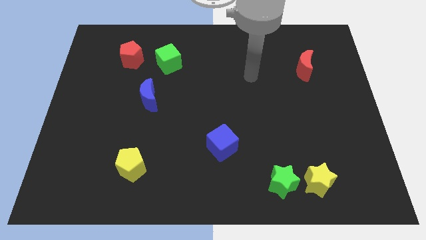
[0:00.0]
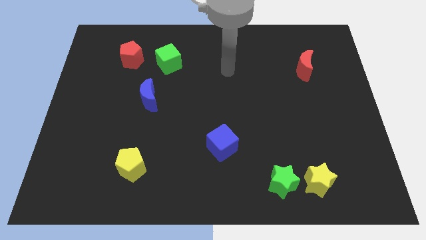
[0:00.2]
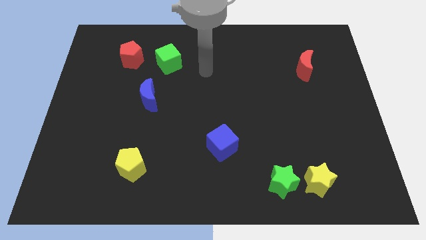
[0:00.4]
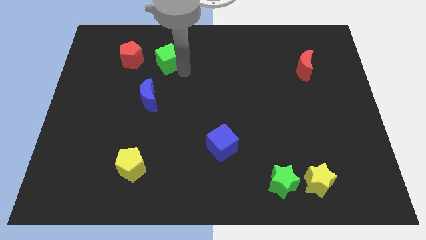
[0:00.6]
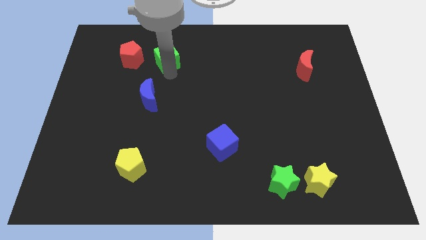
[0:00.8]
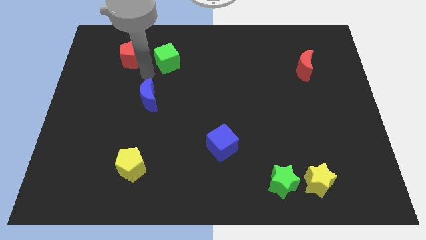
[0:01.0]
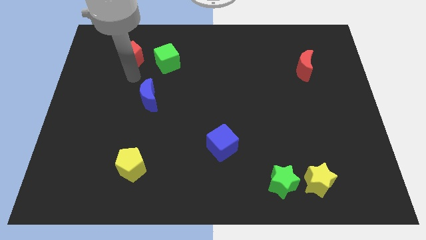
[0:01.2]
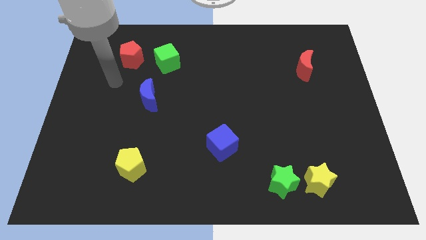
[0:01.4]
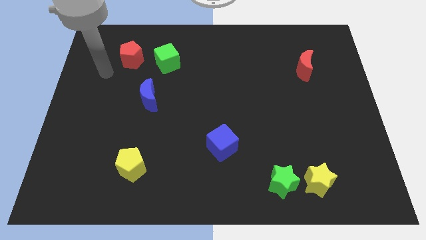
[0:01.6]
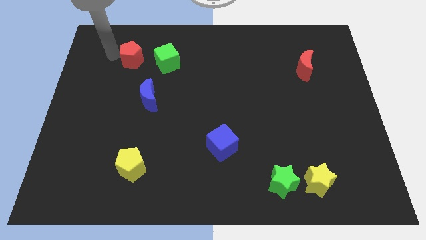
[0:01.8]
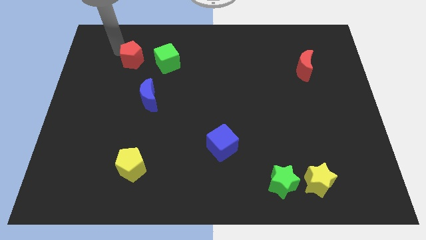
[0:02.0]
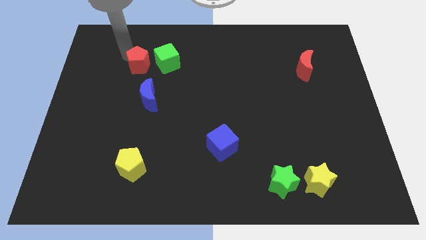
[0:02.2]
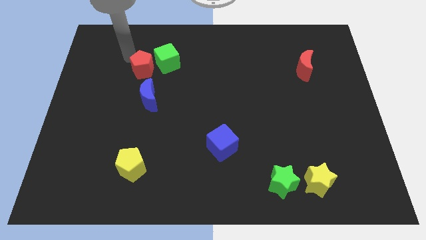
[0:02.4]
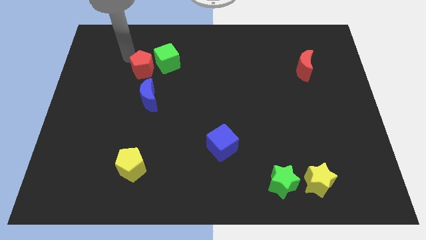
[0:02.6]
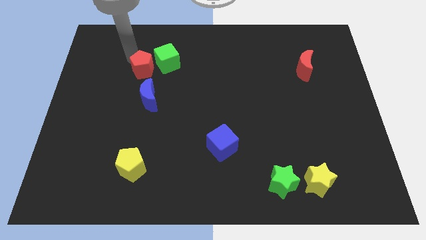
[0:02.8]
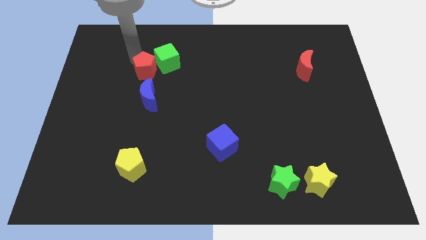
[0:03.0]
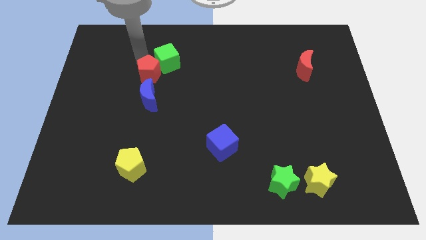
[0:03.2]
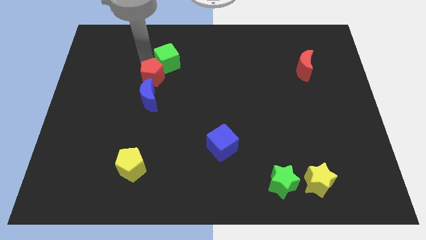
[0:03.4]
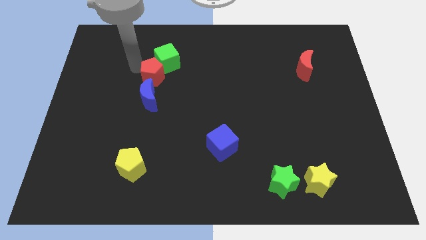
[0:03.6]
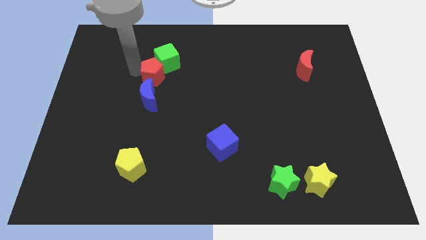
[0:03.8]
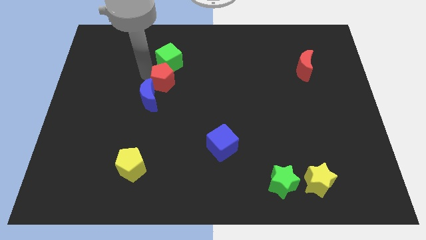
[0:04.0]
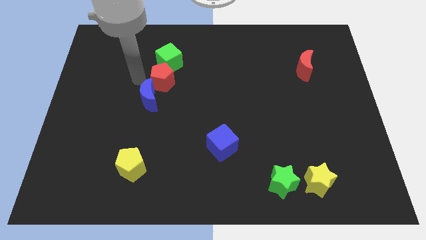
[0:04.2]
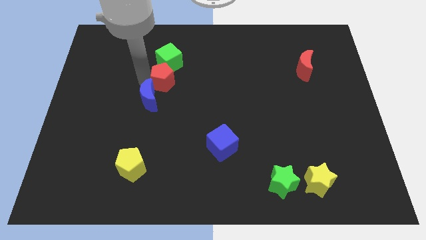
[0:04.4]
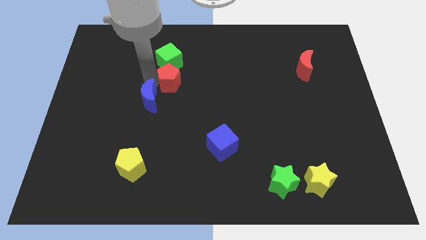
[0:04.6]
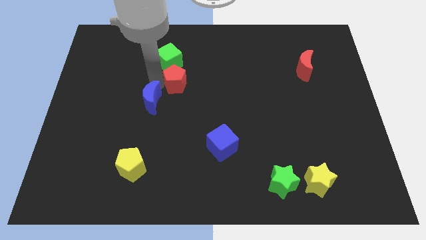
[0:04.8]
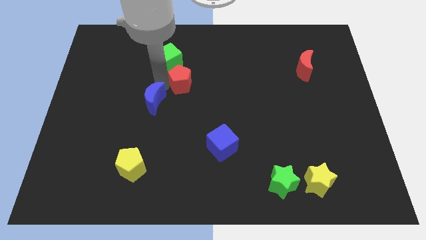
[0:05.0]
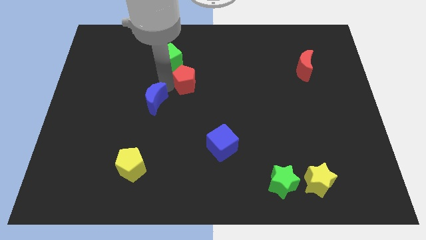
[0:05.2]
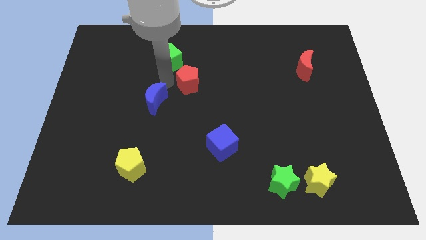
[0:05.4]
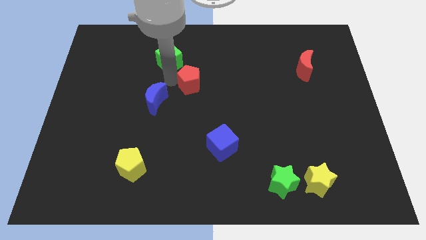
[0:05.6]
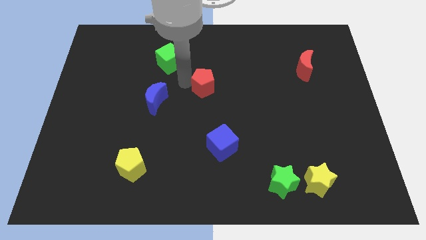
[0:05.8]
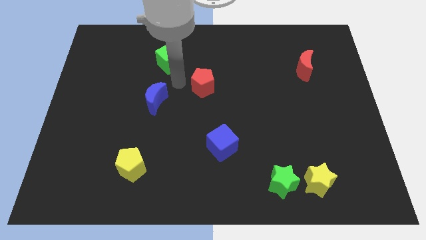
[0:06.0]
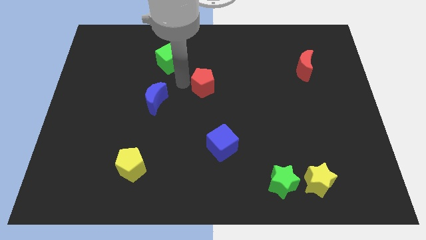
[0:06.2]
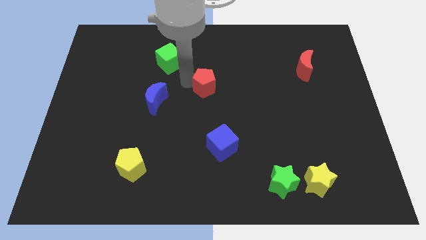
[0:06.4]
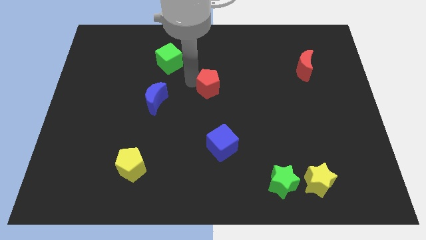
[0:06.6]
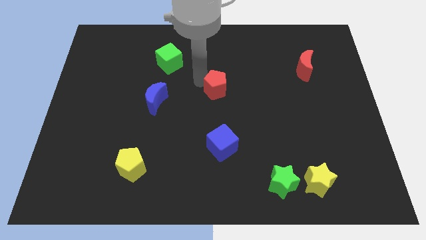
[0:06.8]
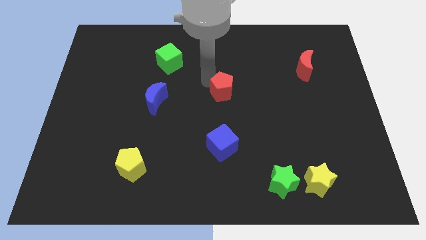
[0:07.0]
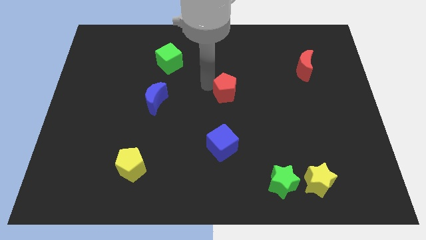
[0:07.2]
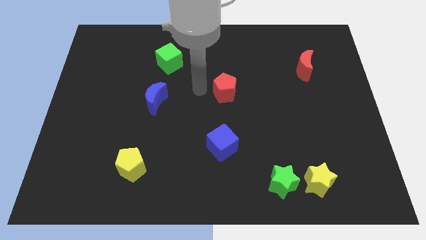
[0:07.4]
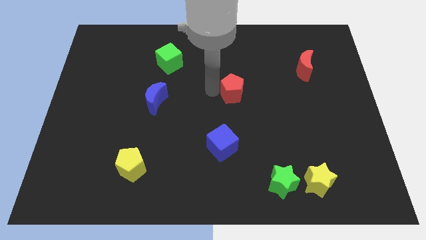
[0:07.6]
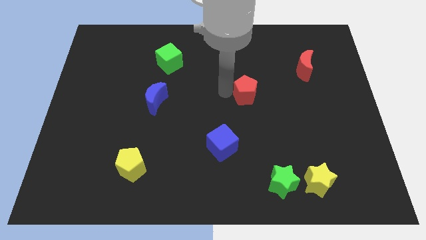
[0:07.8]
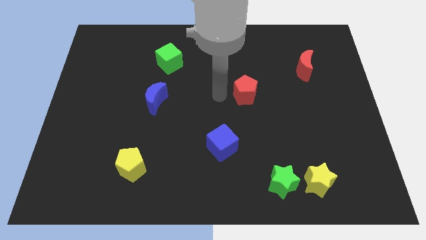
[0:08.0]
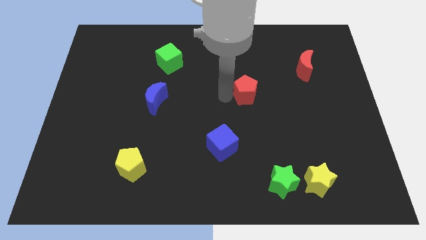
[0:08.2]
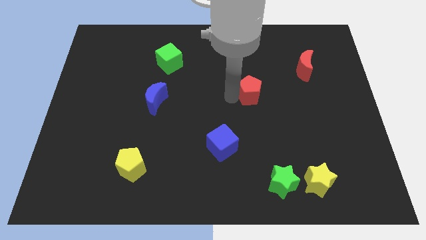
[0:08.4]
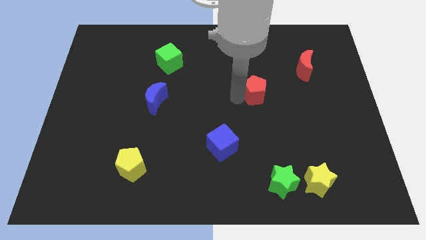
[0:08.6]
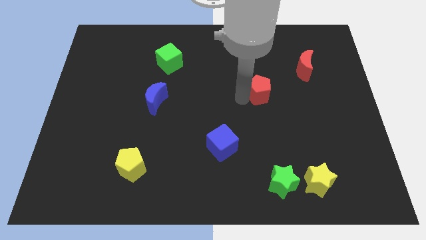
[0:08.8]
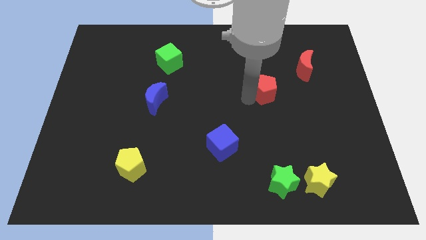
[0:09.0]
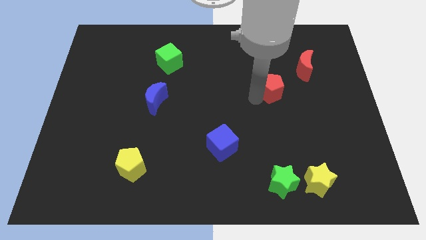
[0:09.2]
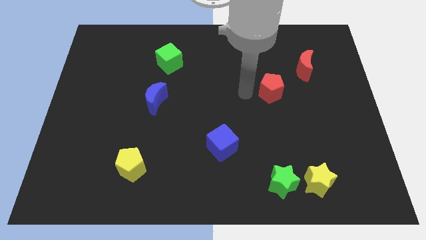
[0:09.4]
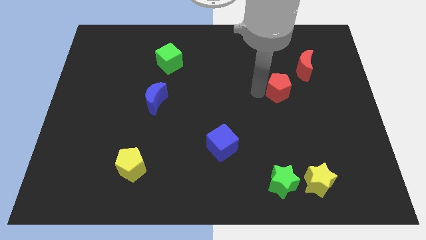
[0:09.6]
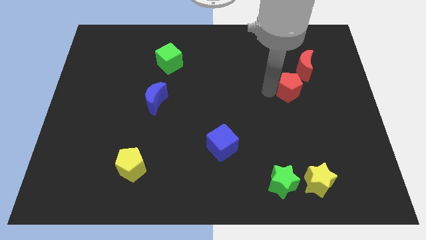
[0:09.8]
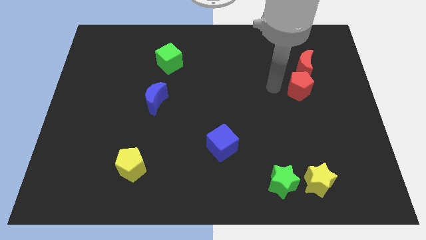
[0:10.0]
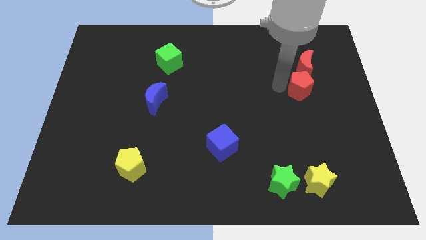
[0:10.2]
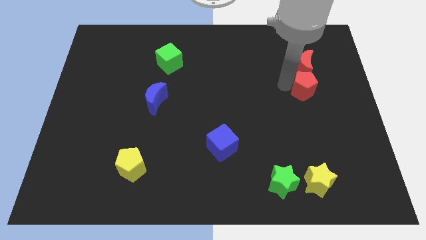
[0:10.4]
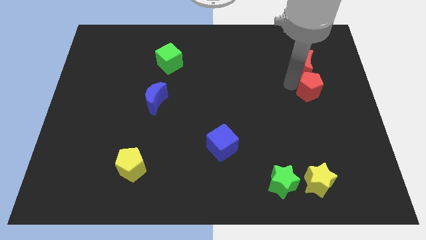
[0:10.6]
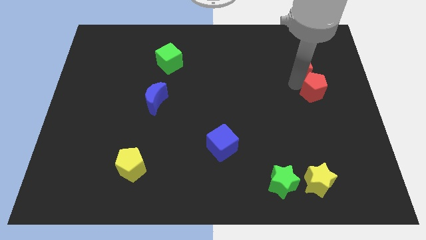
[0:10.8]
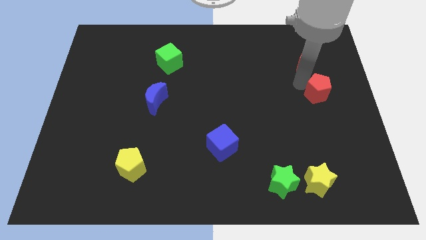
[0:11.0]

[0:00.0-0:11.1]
slide the red pentagon to the right side of the board

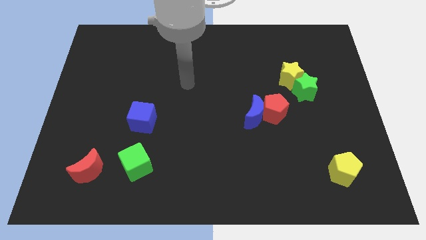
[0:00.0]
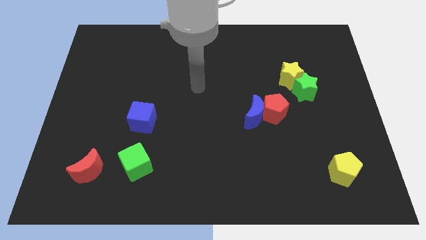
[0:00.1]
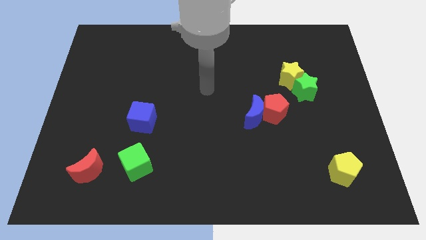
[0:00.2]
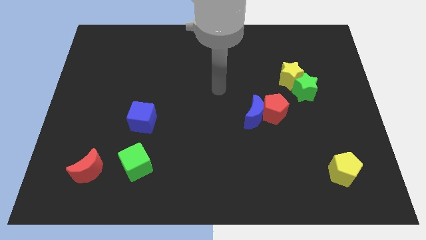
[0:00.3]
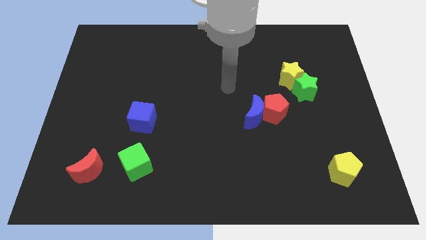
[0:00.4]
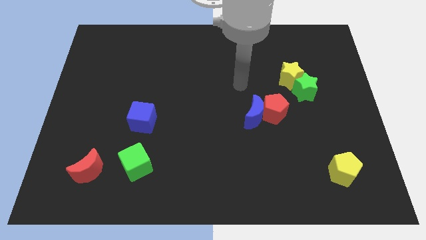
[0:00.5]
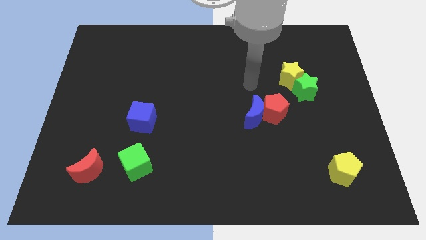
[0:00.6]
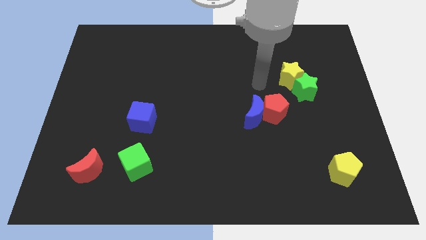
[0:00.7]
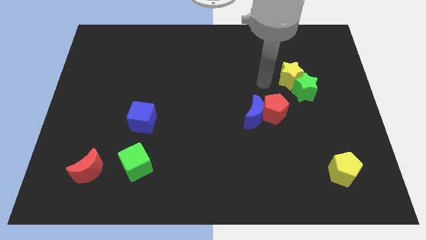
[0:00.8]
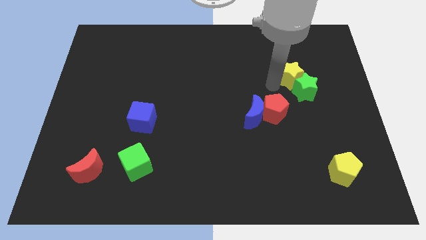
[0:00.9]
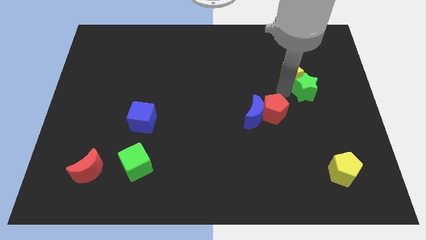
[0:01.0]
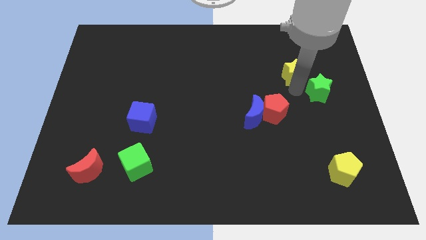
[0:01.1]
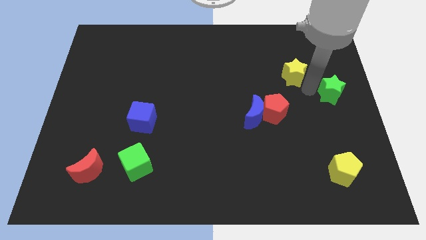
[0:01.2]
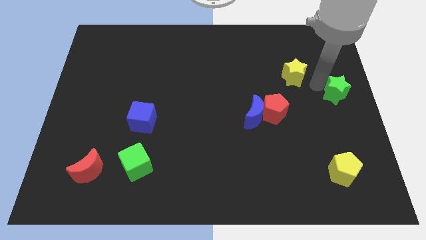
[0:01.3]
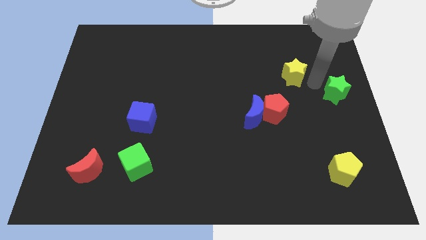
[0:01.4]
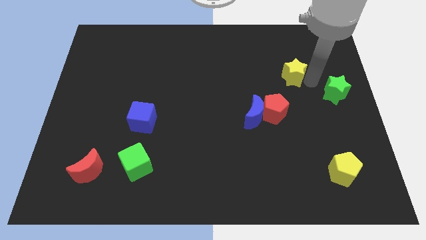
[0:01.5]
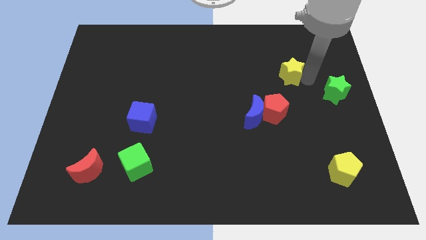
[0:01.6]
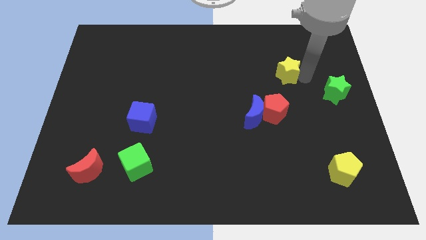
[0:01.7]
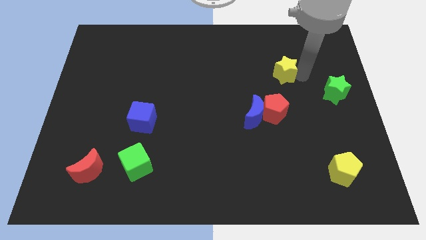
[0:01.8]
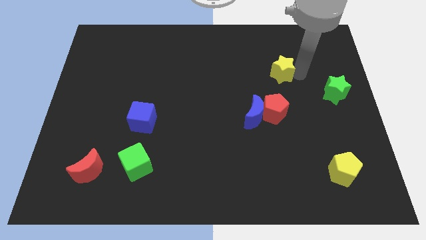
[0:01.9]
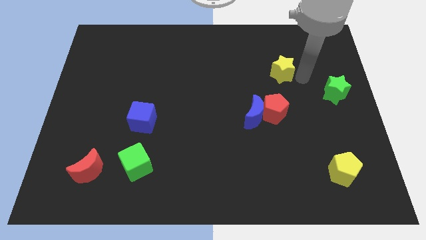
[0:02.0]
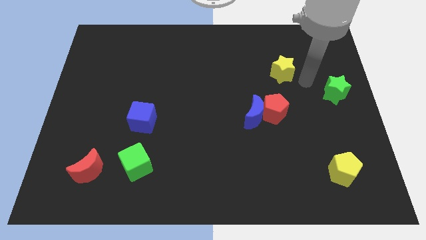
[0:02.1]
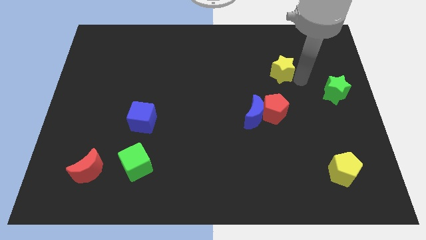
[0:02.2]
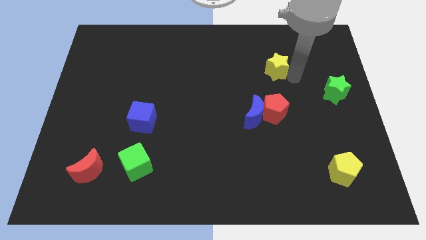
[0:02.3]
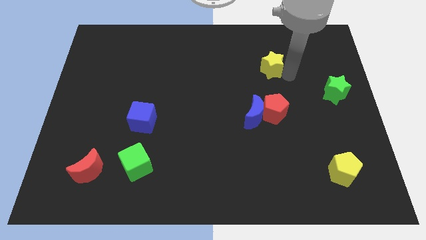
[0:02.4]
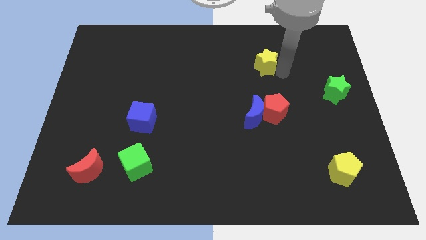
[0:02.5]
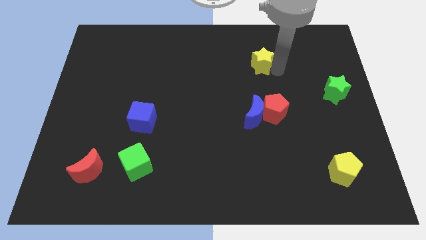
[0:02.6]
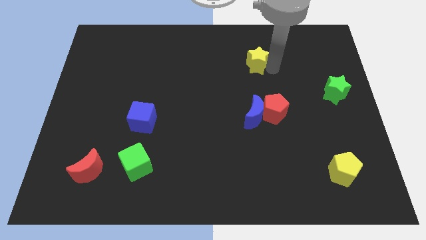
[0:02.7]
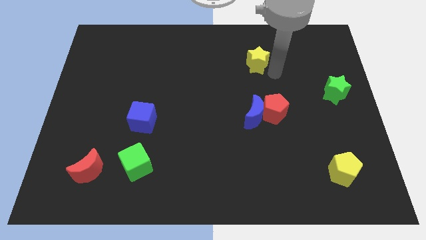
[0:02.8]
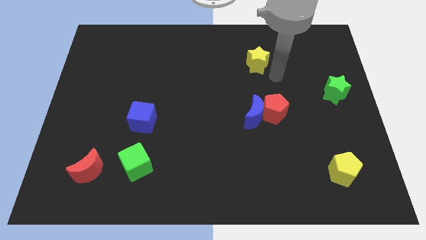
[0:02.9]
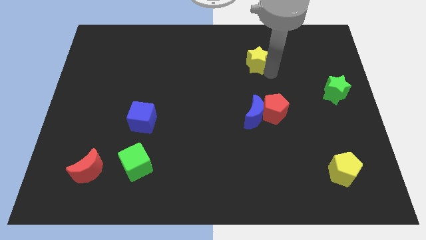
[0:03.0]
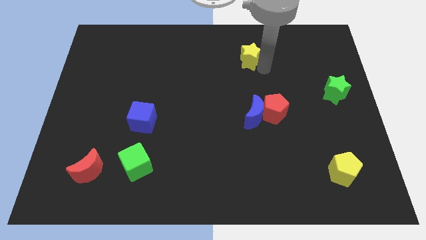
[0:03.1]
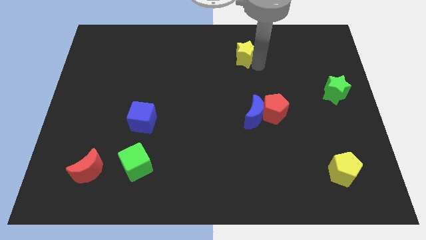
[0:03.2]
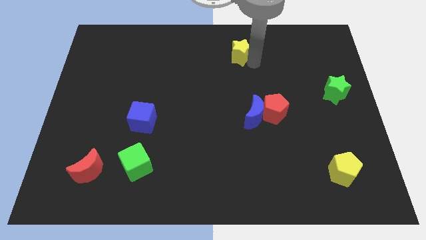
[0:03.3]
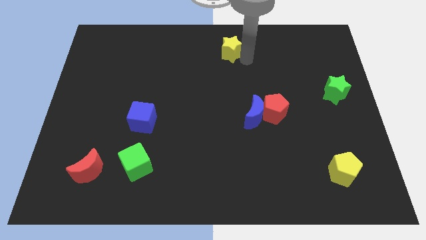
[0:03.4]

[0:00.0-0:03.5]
push the yellow star to the top side
